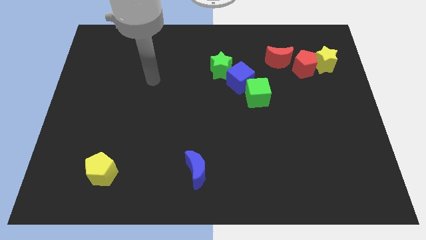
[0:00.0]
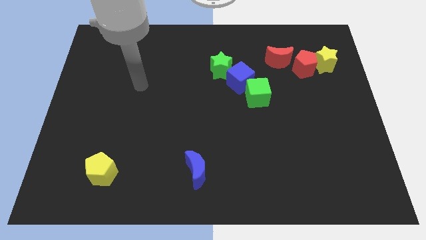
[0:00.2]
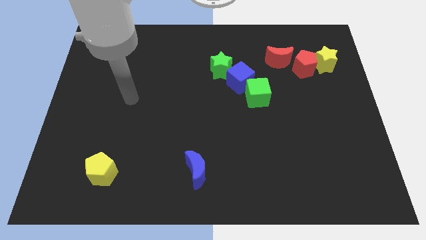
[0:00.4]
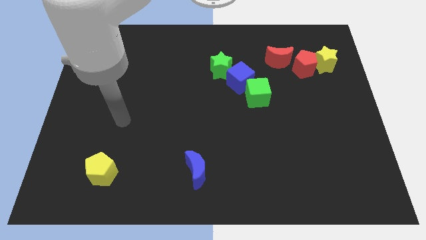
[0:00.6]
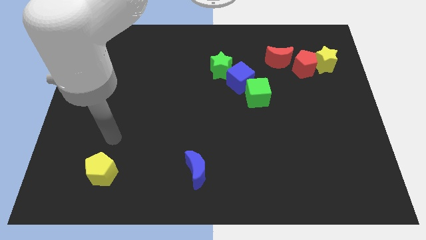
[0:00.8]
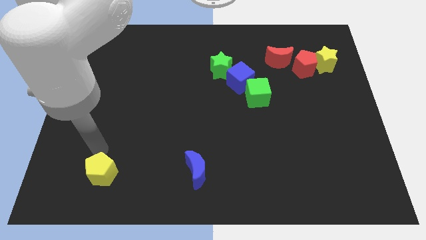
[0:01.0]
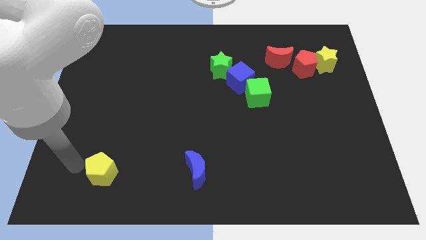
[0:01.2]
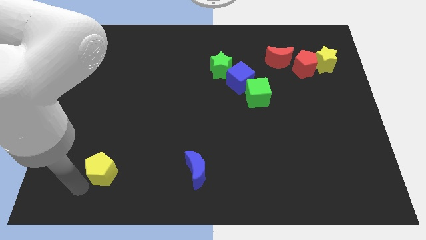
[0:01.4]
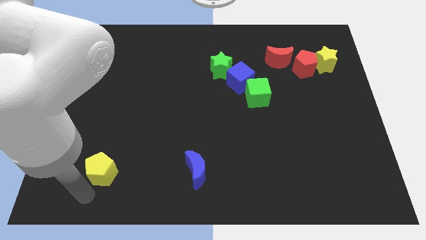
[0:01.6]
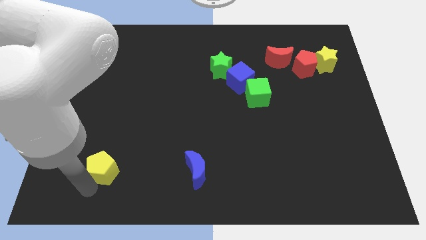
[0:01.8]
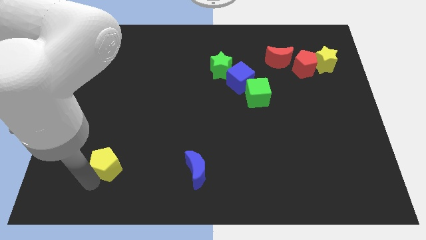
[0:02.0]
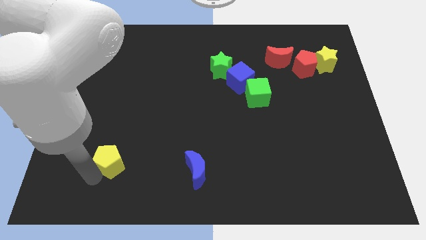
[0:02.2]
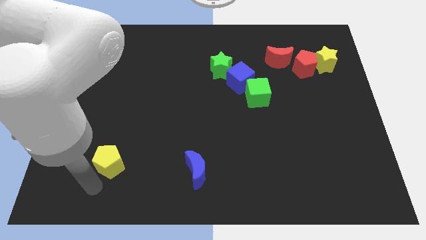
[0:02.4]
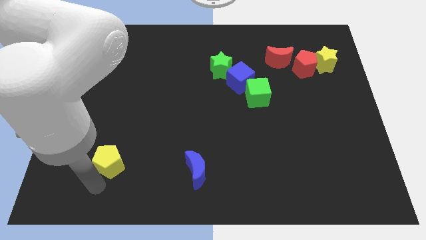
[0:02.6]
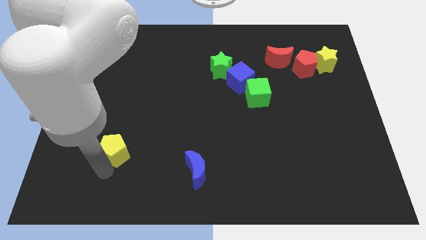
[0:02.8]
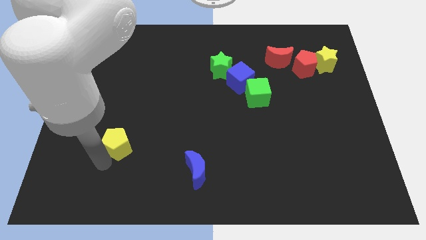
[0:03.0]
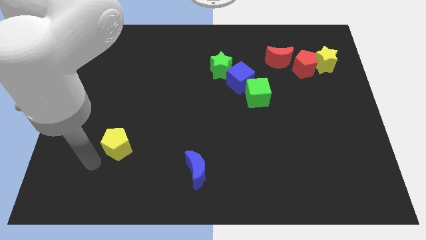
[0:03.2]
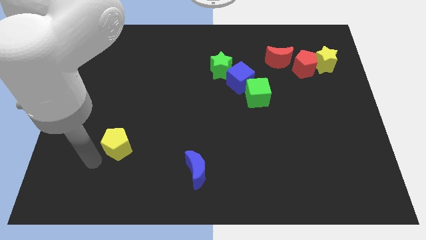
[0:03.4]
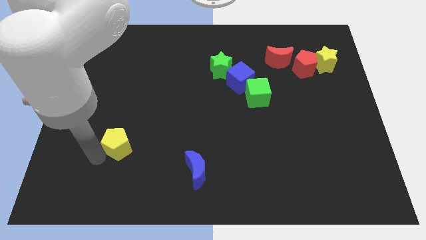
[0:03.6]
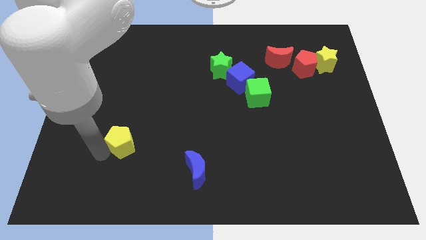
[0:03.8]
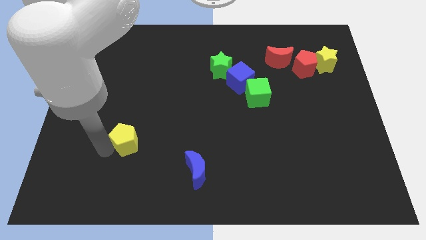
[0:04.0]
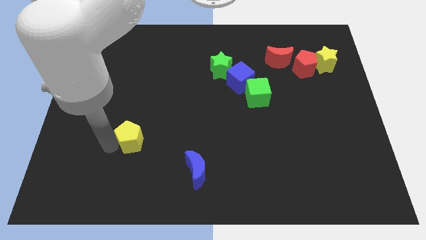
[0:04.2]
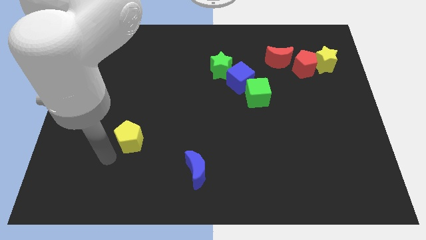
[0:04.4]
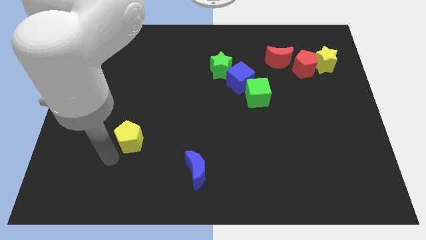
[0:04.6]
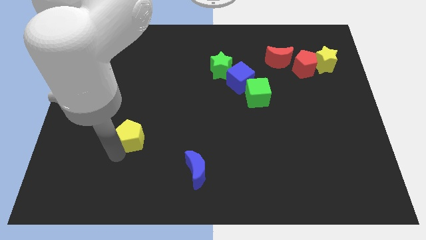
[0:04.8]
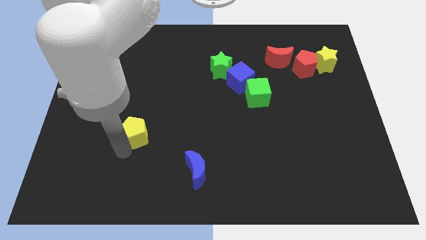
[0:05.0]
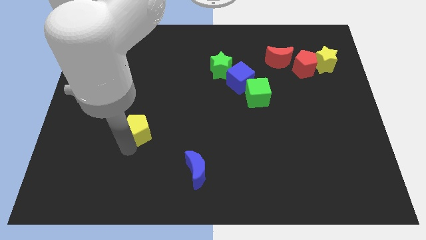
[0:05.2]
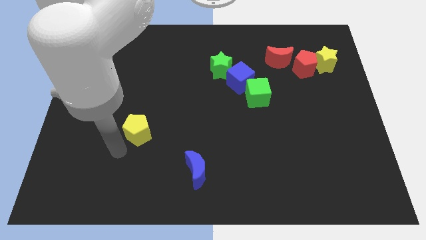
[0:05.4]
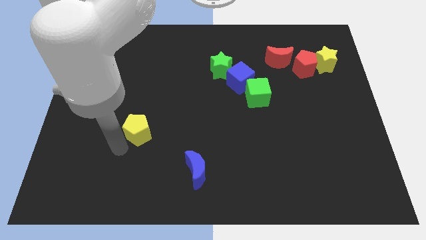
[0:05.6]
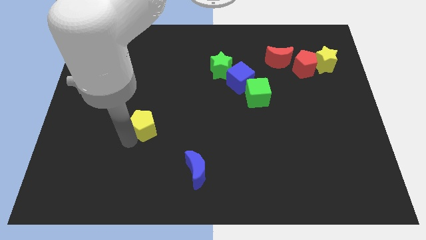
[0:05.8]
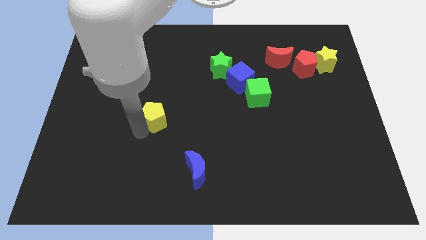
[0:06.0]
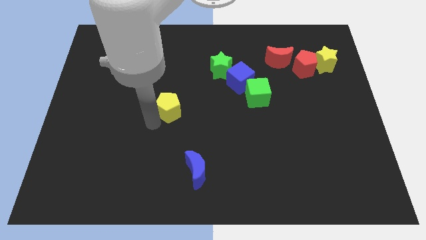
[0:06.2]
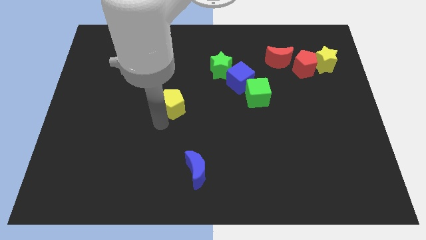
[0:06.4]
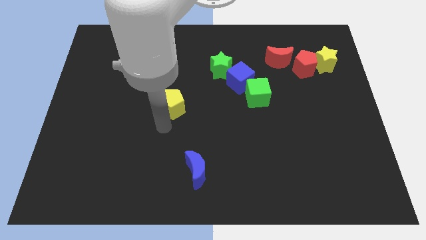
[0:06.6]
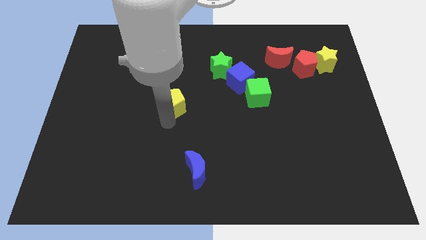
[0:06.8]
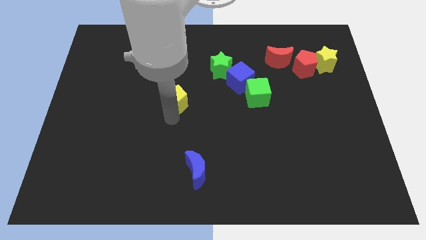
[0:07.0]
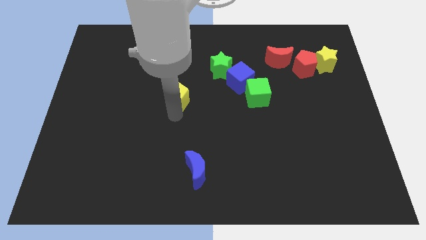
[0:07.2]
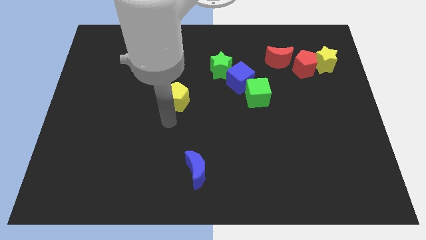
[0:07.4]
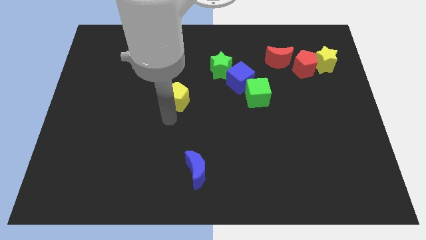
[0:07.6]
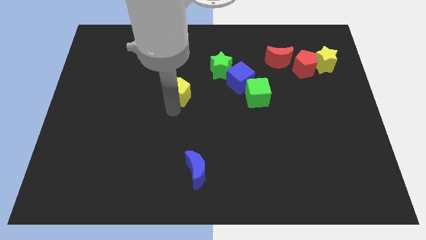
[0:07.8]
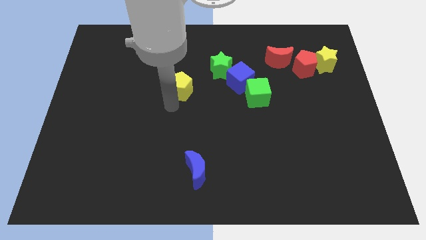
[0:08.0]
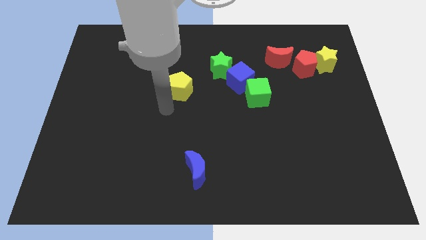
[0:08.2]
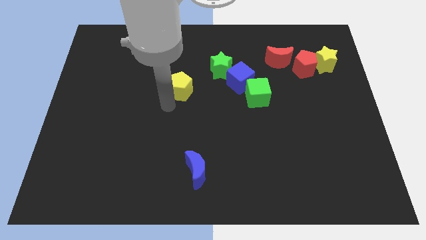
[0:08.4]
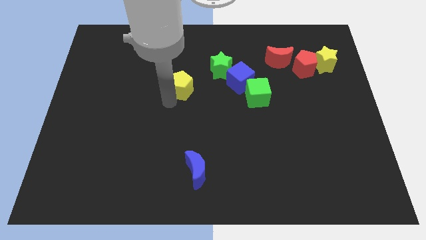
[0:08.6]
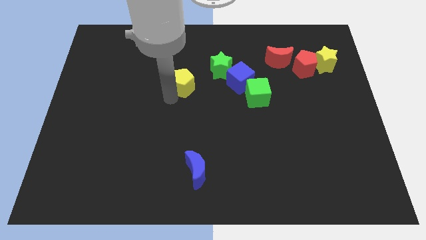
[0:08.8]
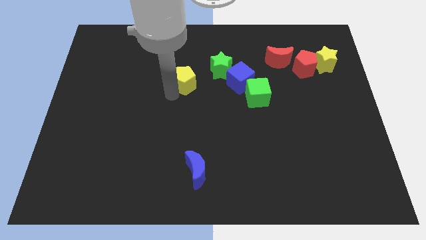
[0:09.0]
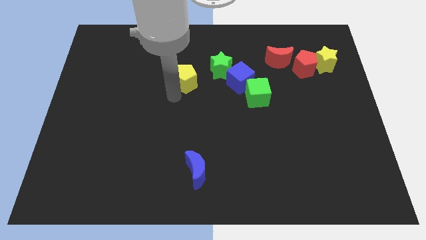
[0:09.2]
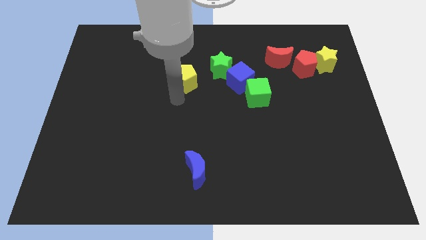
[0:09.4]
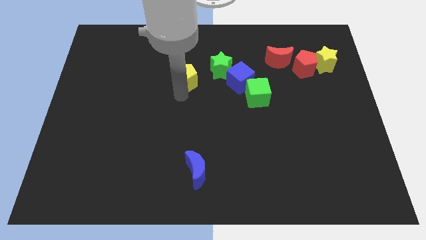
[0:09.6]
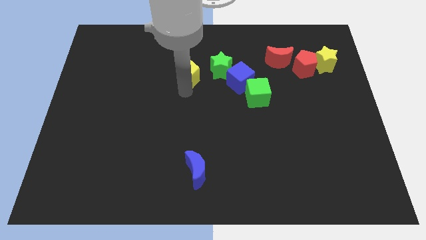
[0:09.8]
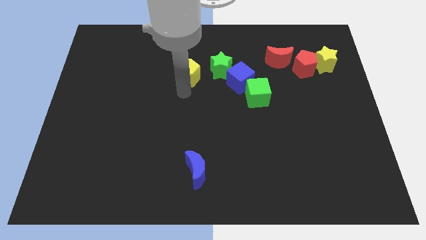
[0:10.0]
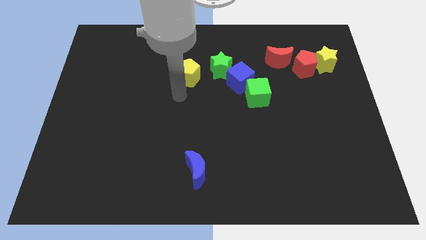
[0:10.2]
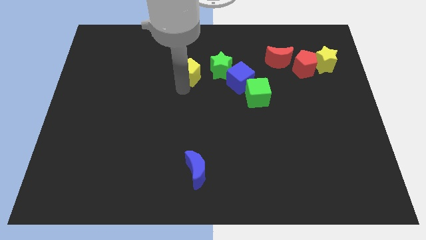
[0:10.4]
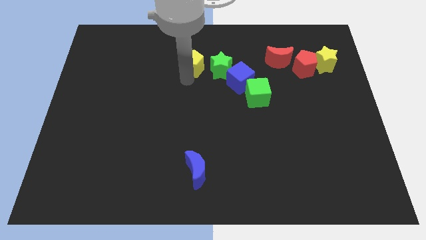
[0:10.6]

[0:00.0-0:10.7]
move the yellow pentagon to the top left side of the green star

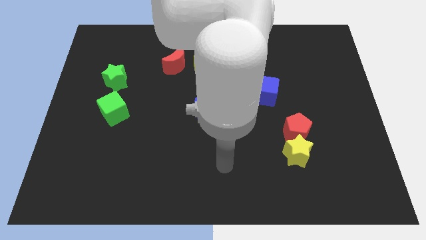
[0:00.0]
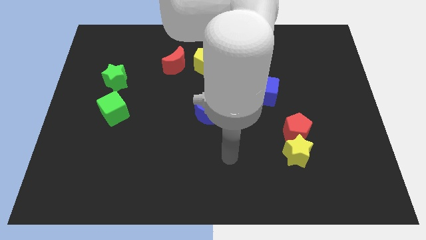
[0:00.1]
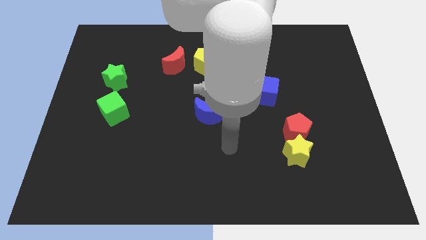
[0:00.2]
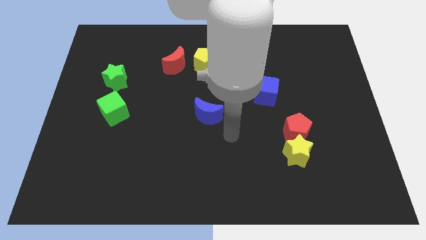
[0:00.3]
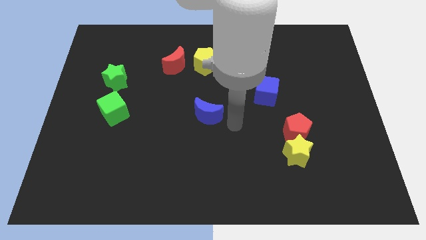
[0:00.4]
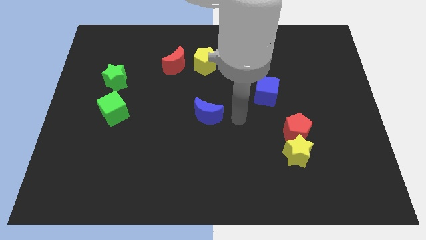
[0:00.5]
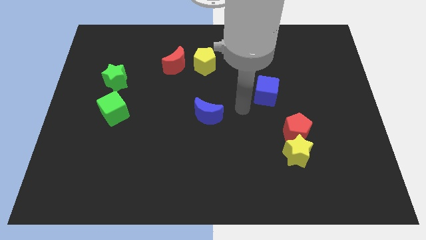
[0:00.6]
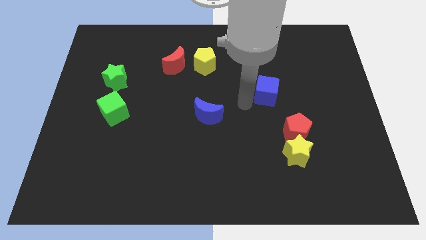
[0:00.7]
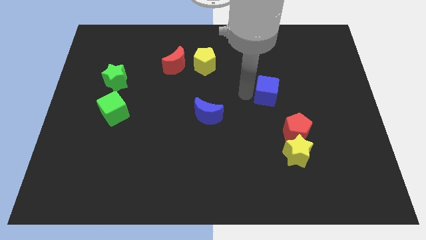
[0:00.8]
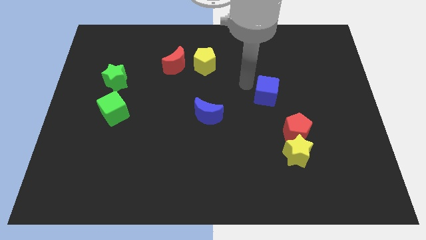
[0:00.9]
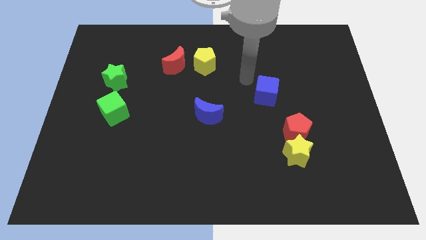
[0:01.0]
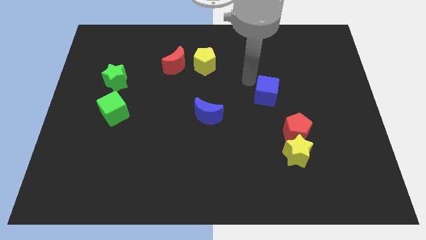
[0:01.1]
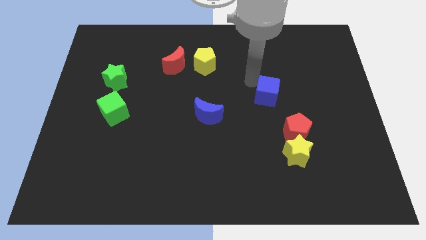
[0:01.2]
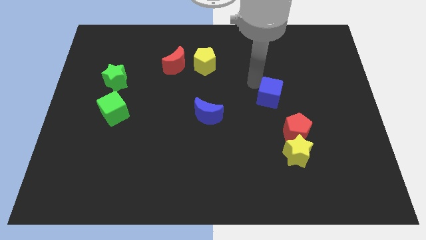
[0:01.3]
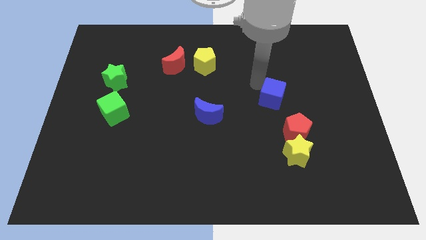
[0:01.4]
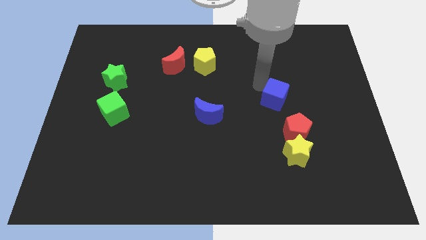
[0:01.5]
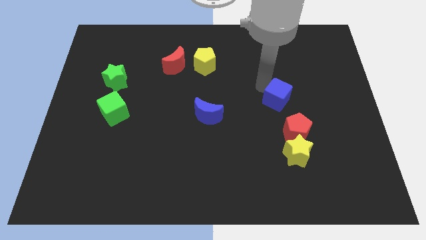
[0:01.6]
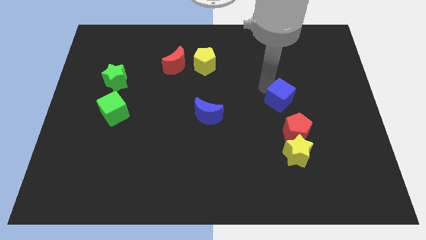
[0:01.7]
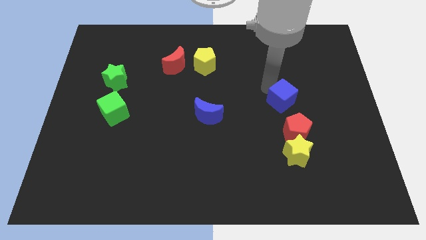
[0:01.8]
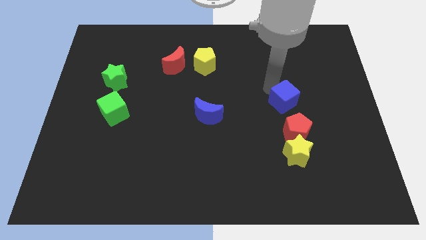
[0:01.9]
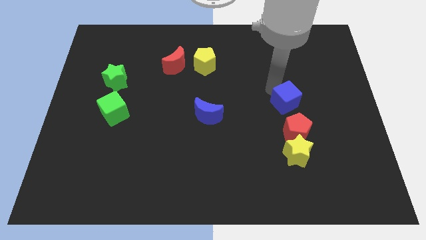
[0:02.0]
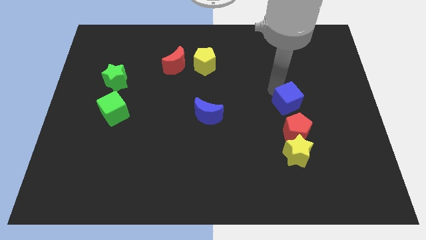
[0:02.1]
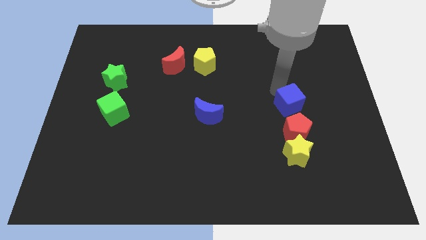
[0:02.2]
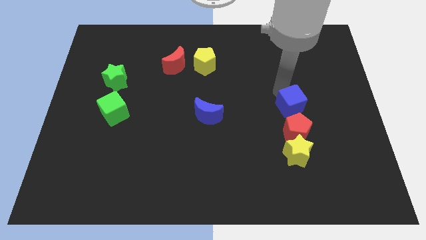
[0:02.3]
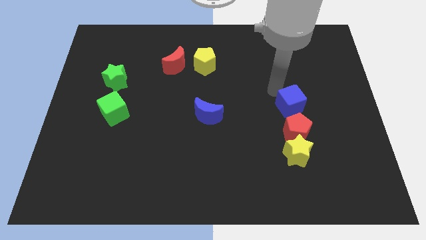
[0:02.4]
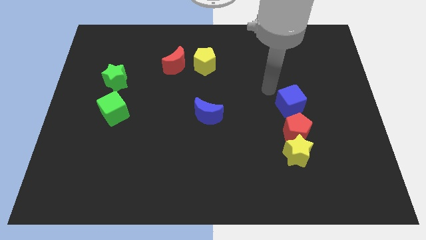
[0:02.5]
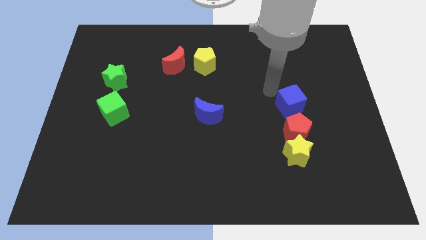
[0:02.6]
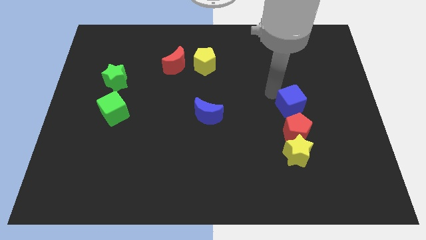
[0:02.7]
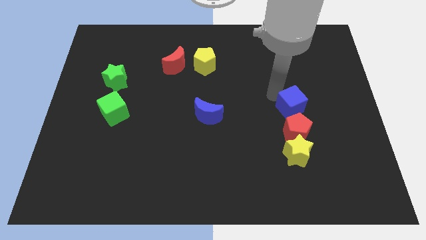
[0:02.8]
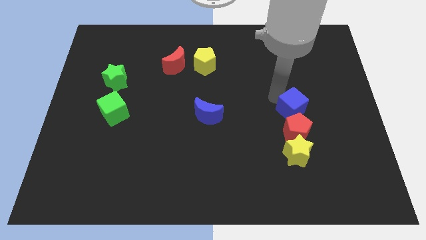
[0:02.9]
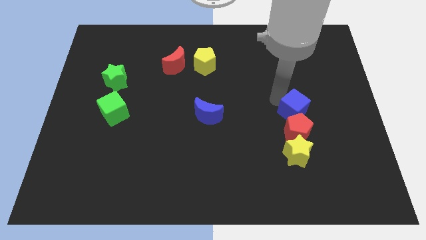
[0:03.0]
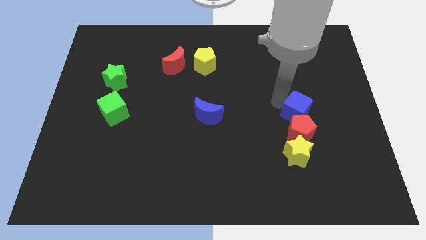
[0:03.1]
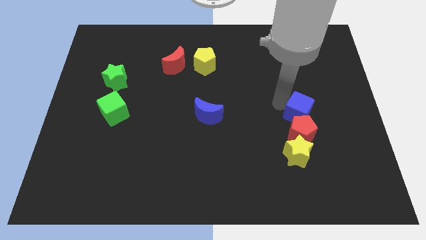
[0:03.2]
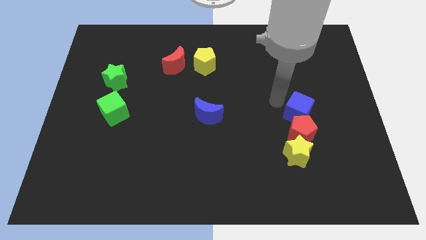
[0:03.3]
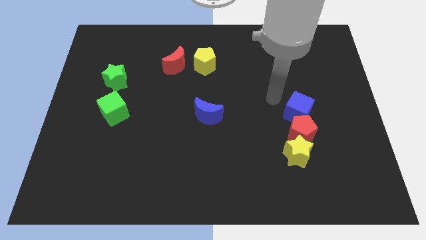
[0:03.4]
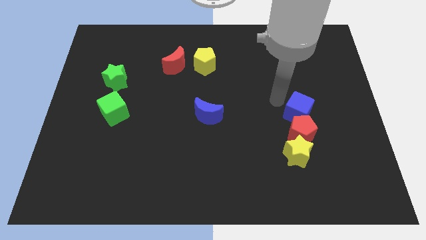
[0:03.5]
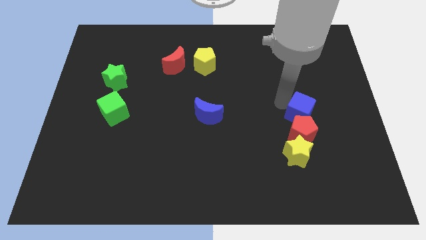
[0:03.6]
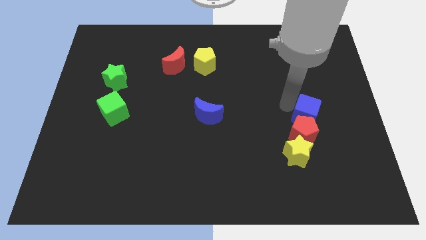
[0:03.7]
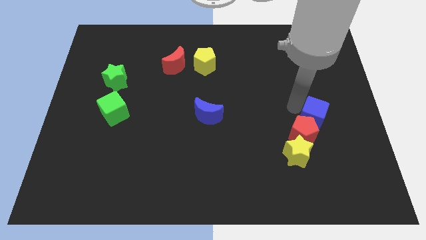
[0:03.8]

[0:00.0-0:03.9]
push the blue cube to the top right of the yellow star
